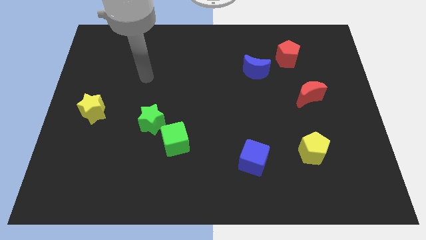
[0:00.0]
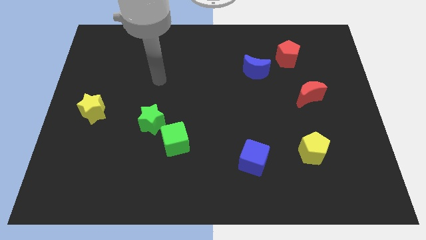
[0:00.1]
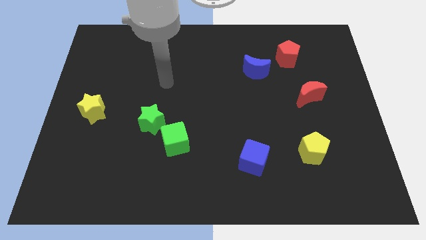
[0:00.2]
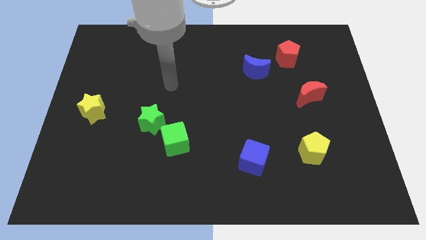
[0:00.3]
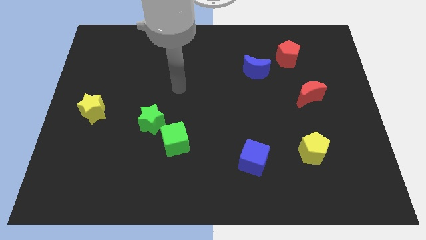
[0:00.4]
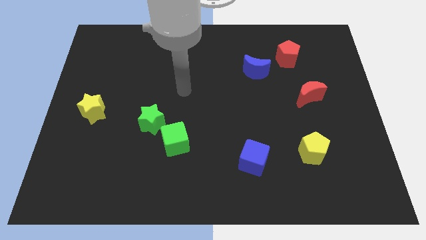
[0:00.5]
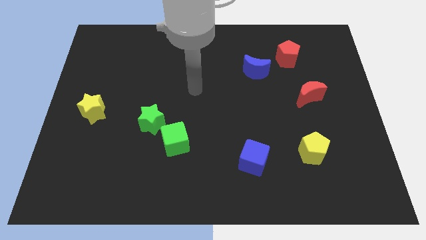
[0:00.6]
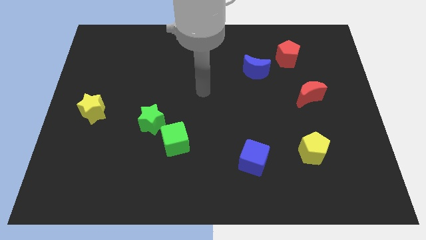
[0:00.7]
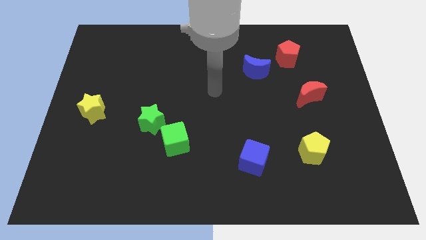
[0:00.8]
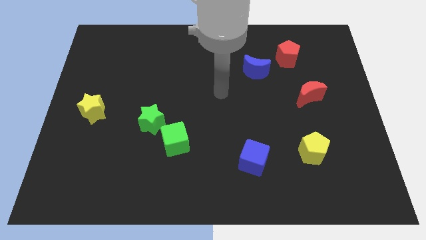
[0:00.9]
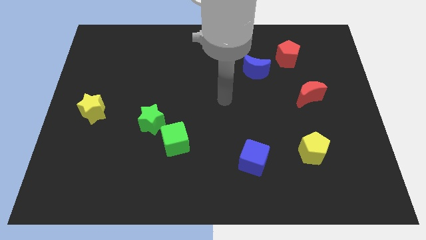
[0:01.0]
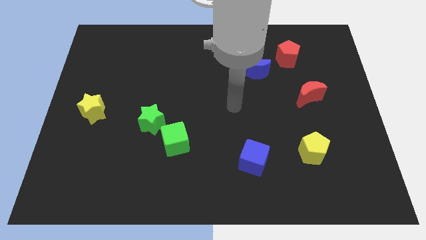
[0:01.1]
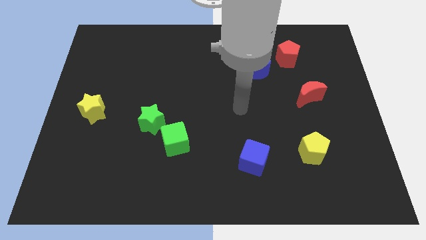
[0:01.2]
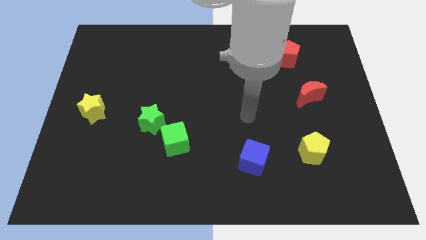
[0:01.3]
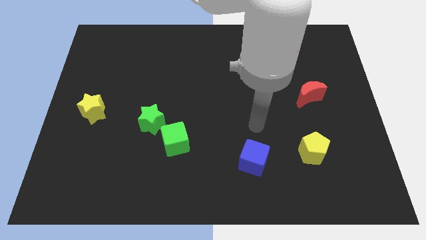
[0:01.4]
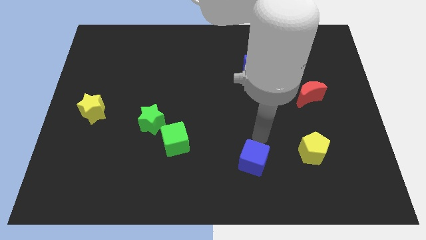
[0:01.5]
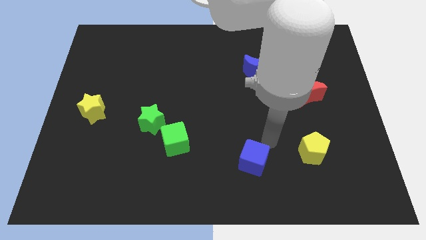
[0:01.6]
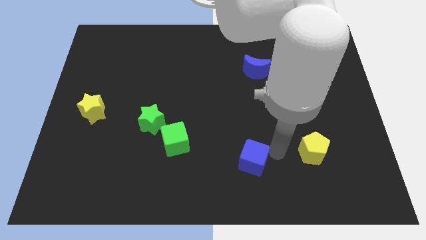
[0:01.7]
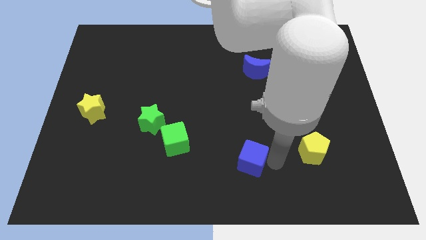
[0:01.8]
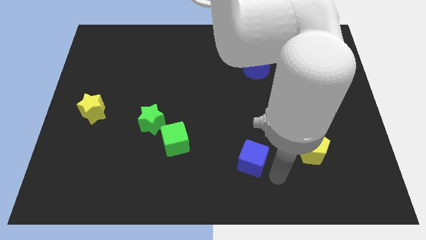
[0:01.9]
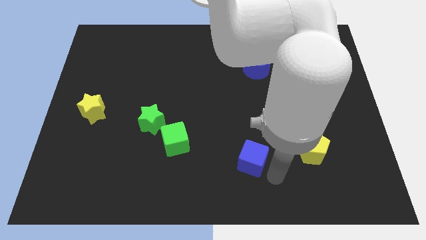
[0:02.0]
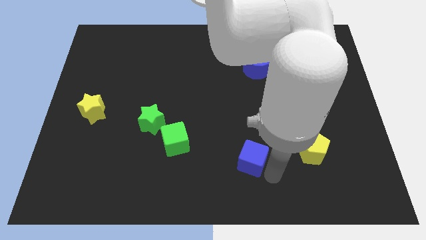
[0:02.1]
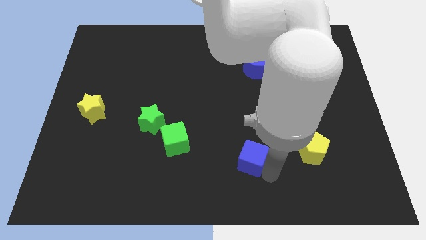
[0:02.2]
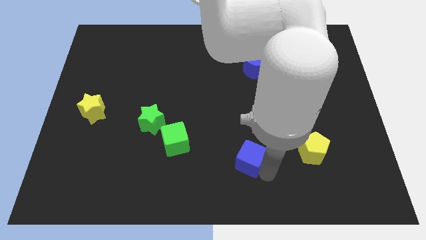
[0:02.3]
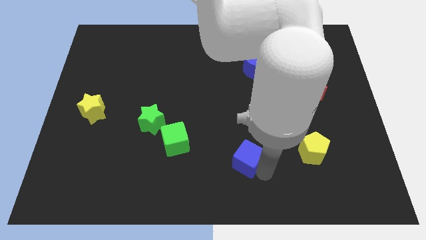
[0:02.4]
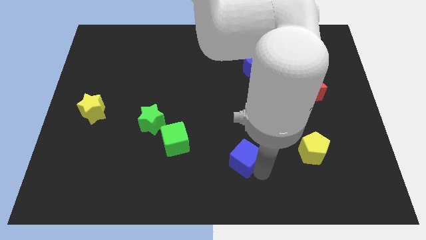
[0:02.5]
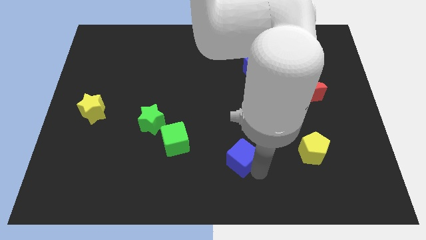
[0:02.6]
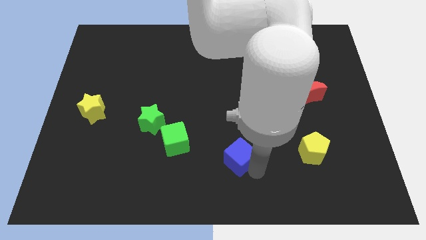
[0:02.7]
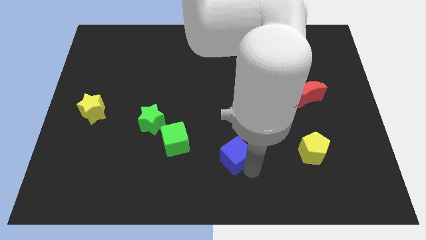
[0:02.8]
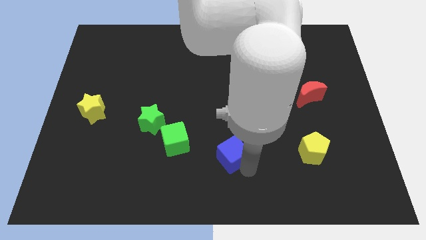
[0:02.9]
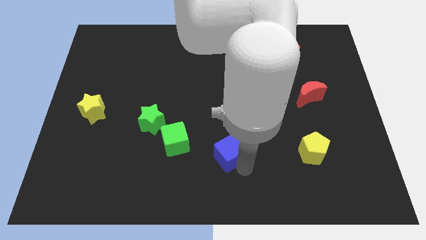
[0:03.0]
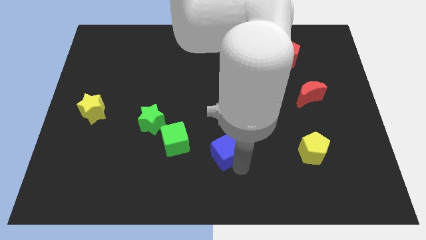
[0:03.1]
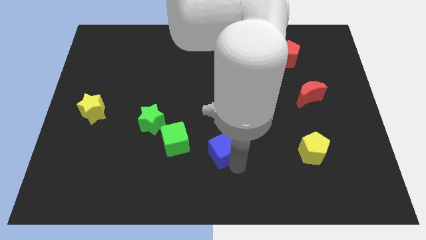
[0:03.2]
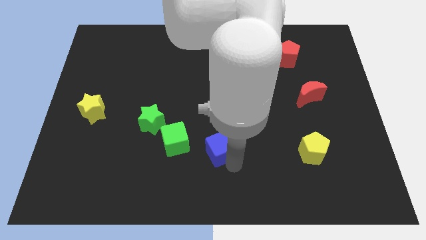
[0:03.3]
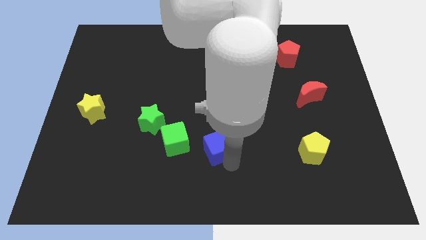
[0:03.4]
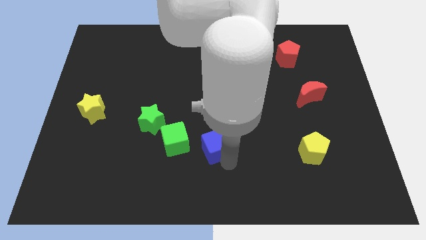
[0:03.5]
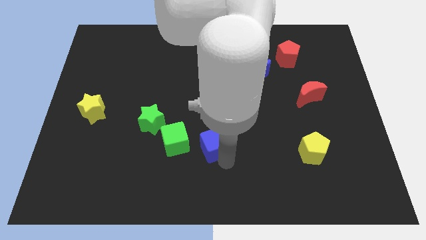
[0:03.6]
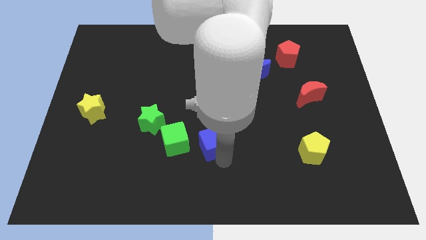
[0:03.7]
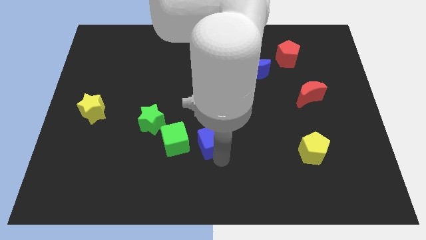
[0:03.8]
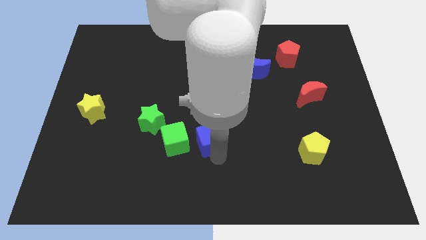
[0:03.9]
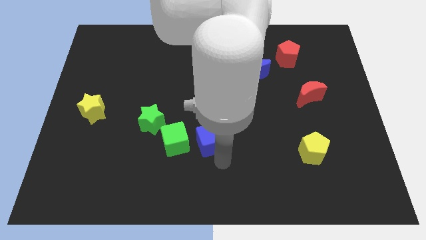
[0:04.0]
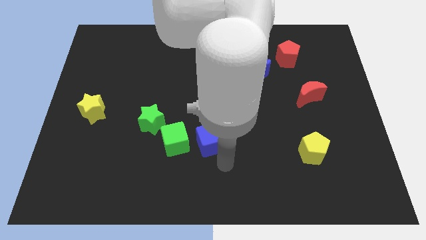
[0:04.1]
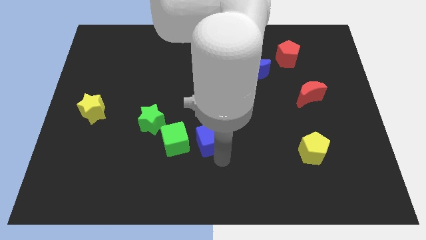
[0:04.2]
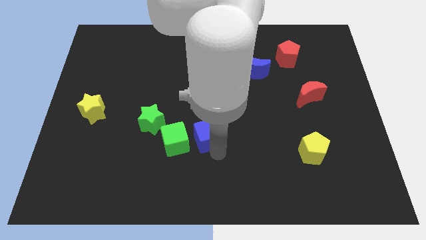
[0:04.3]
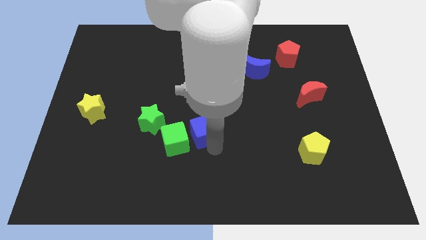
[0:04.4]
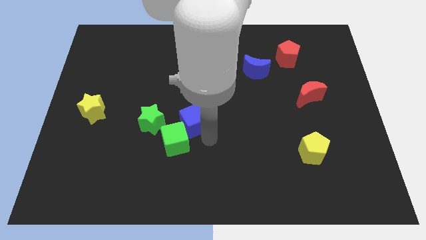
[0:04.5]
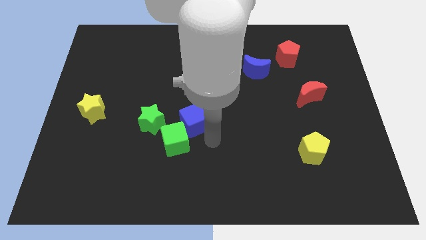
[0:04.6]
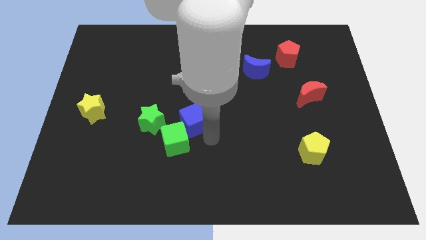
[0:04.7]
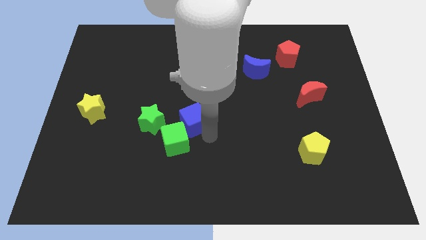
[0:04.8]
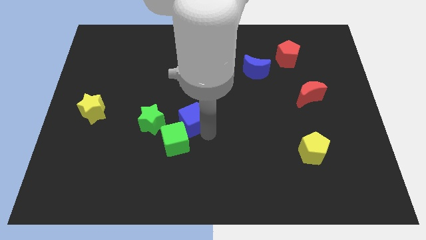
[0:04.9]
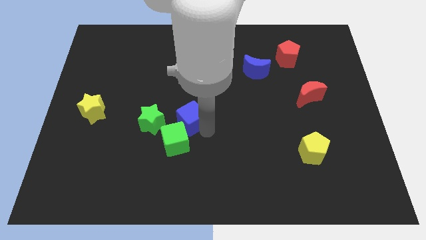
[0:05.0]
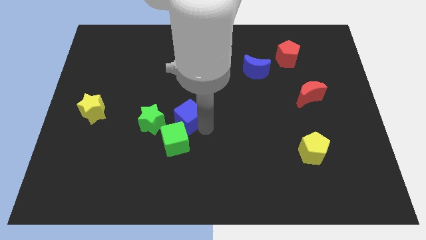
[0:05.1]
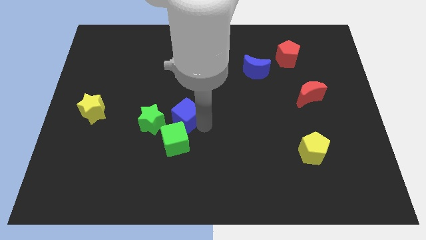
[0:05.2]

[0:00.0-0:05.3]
slide the blue cube to the top right of the green star

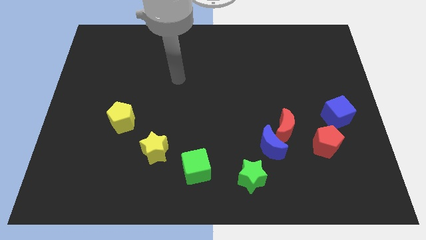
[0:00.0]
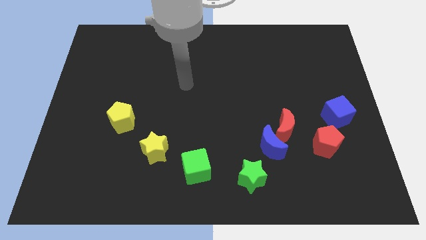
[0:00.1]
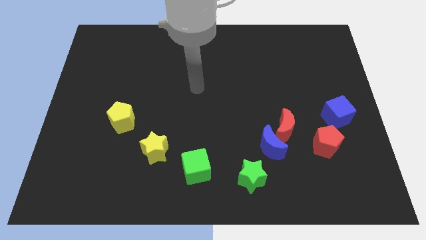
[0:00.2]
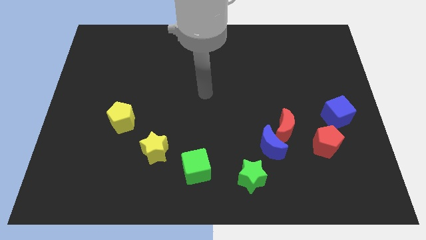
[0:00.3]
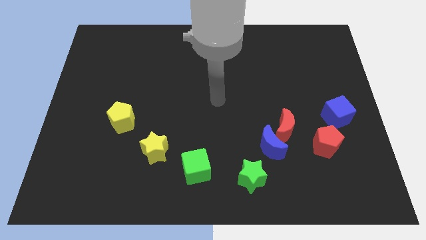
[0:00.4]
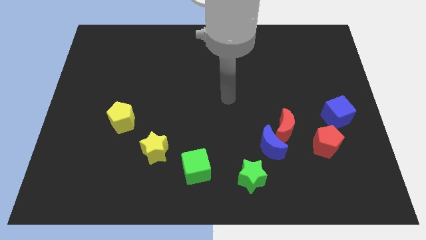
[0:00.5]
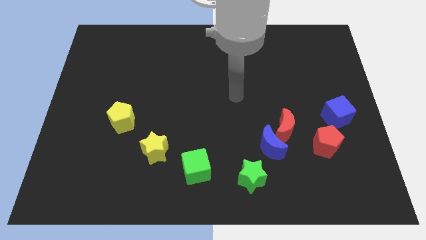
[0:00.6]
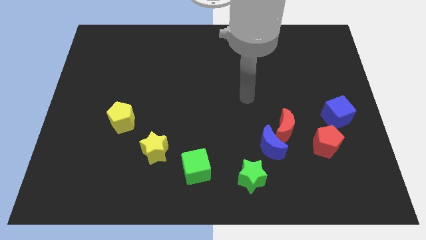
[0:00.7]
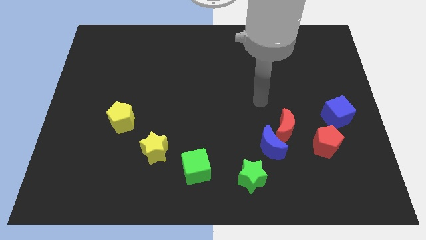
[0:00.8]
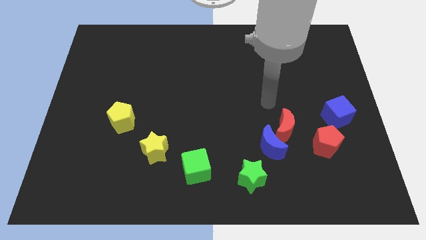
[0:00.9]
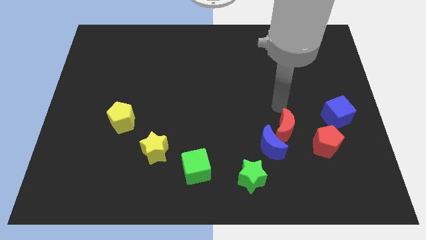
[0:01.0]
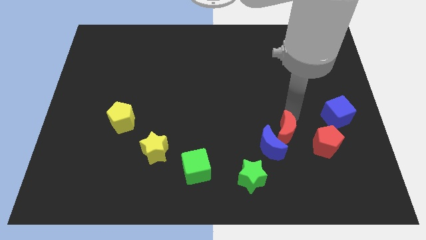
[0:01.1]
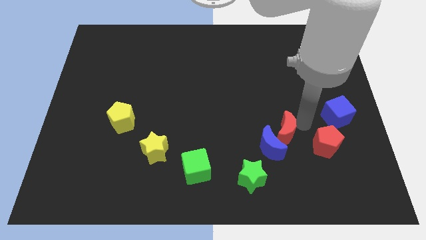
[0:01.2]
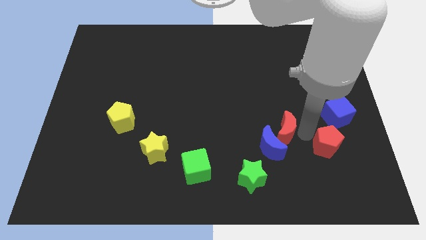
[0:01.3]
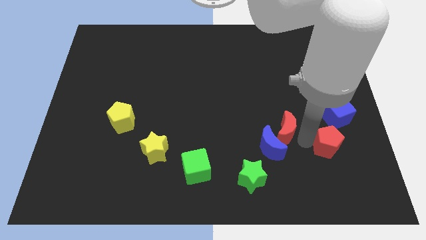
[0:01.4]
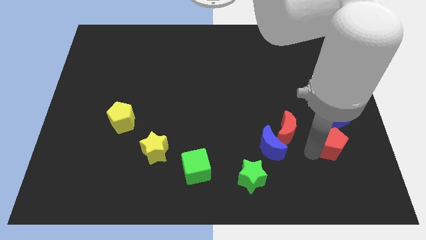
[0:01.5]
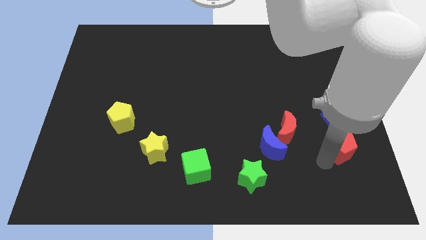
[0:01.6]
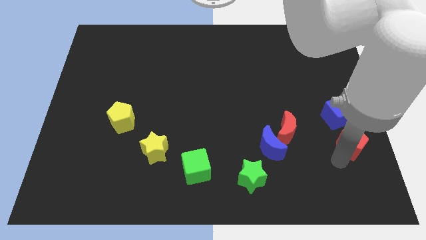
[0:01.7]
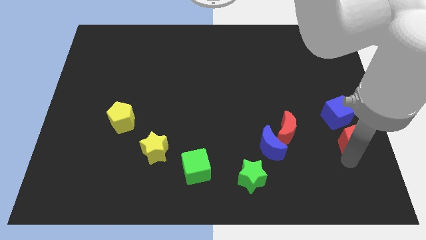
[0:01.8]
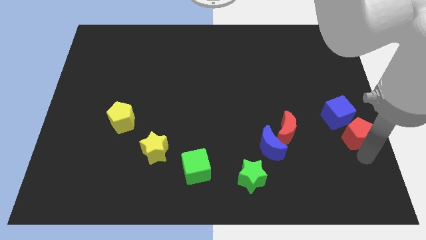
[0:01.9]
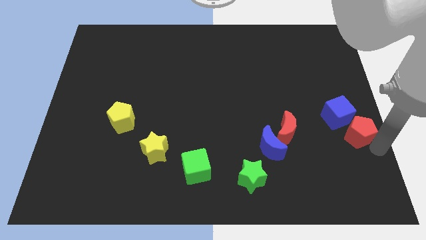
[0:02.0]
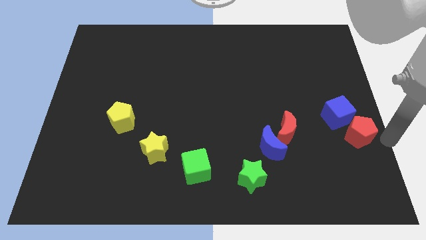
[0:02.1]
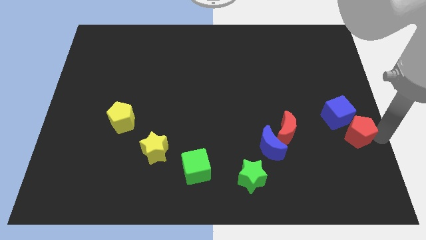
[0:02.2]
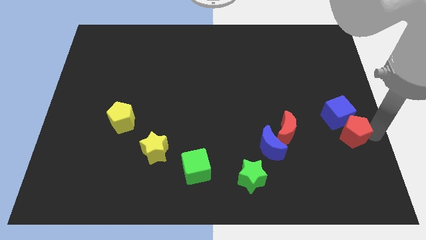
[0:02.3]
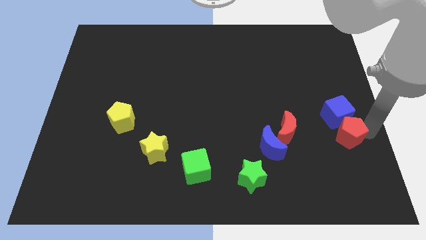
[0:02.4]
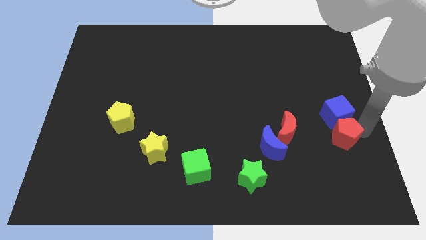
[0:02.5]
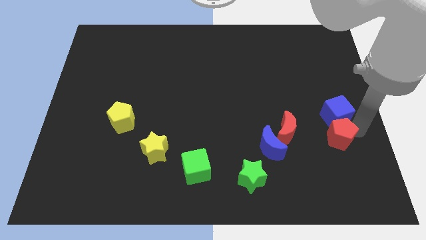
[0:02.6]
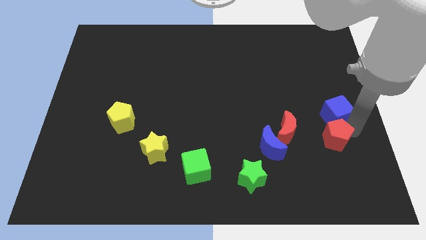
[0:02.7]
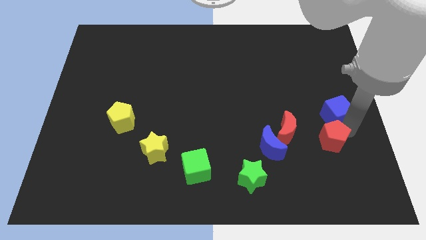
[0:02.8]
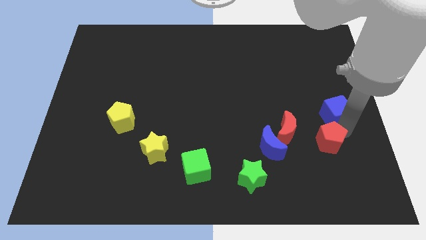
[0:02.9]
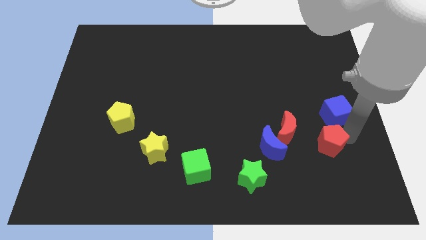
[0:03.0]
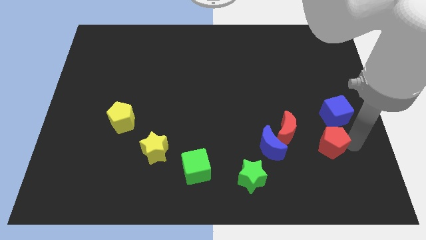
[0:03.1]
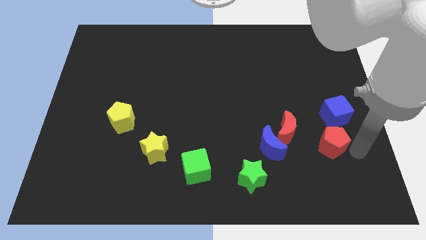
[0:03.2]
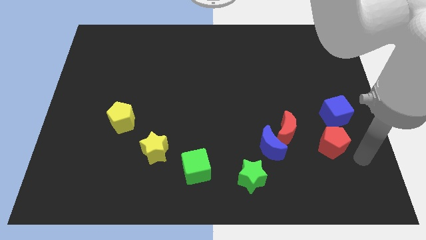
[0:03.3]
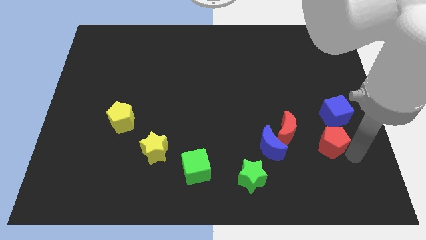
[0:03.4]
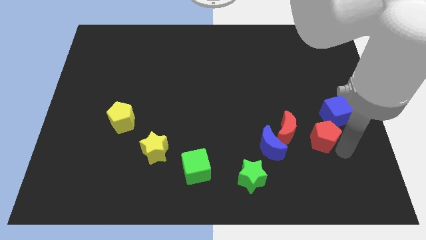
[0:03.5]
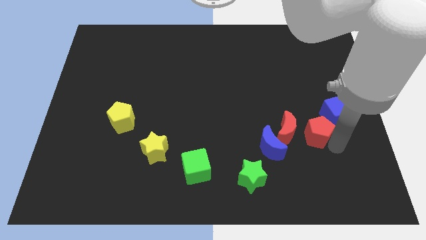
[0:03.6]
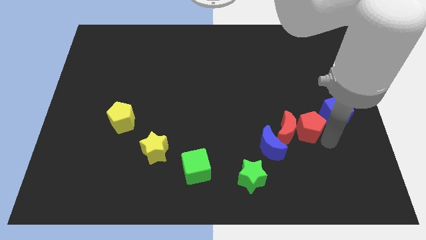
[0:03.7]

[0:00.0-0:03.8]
slide the red pentagon diagonally up and to the right of the blue moon
